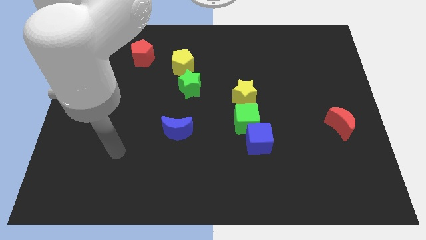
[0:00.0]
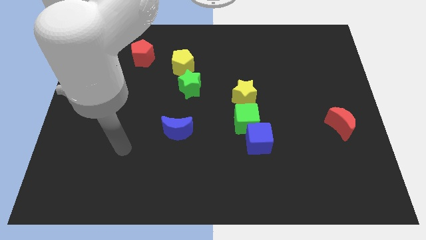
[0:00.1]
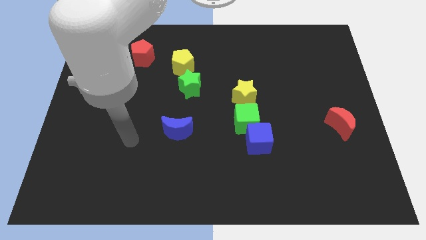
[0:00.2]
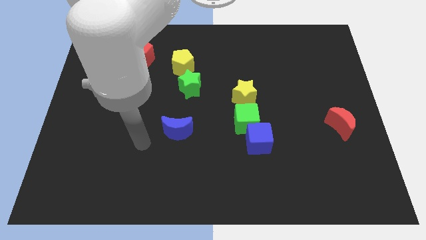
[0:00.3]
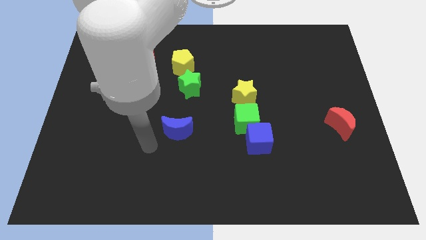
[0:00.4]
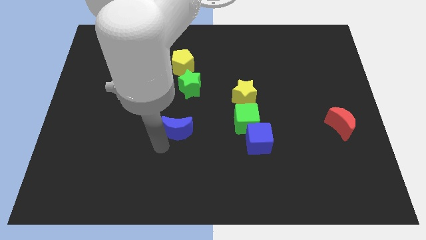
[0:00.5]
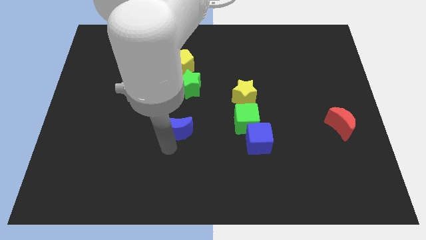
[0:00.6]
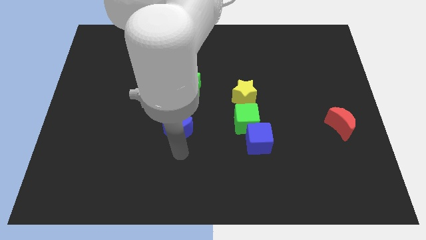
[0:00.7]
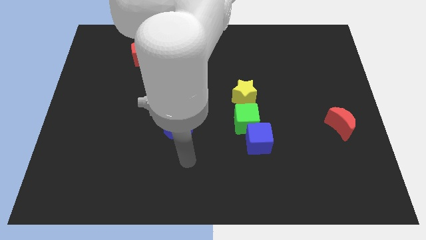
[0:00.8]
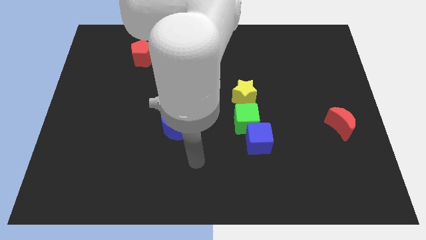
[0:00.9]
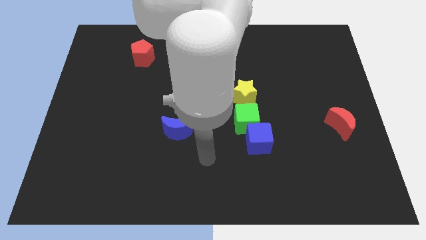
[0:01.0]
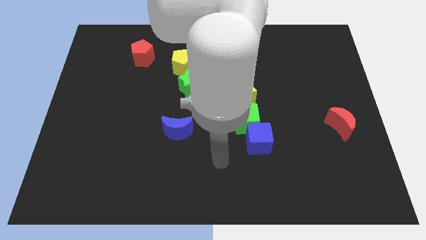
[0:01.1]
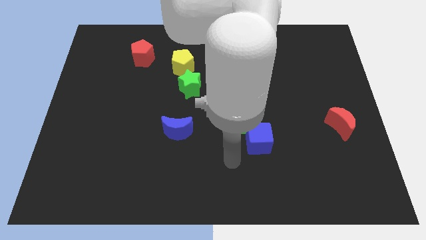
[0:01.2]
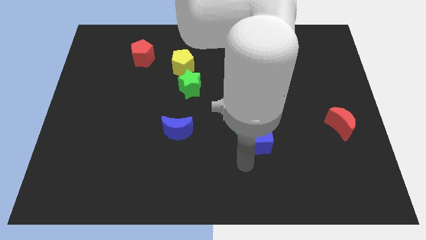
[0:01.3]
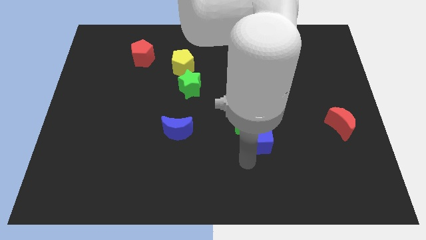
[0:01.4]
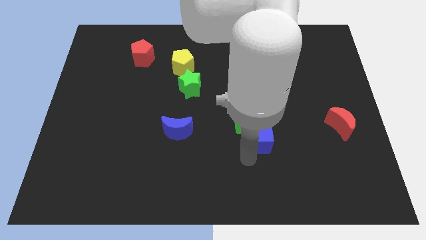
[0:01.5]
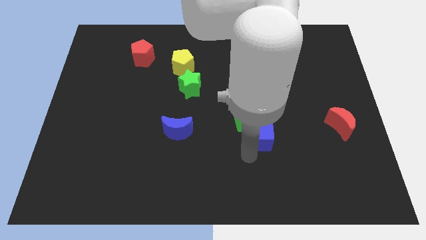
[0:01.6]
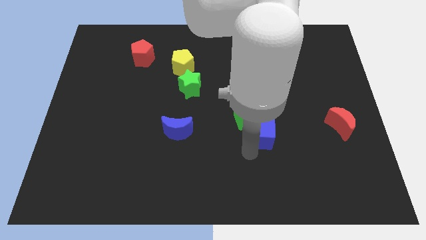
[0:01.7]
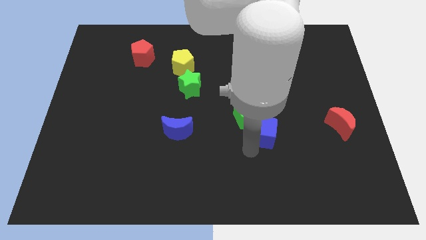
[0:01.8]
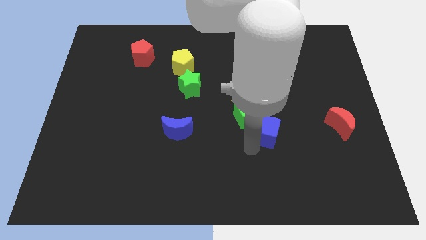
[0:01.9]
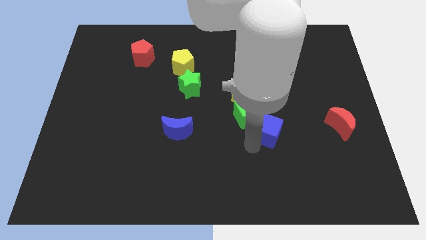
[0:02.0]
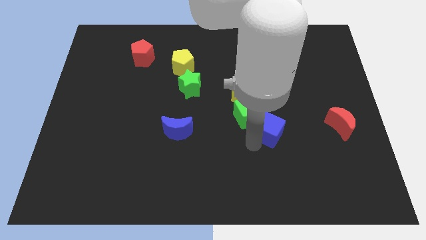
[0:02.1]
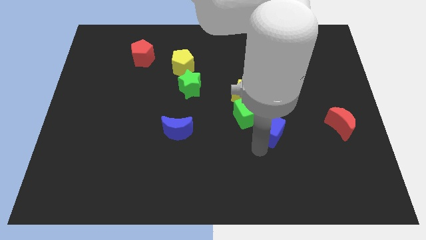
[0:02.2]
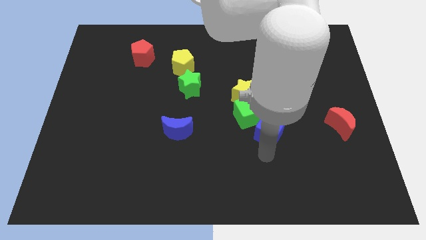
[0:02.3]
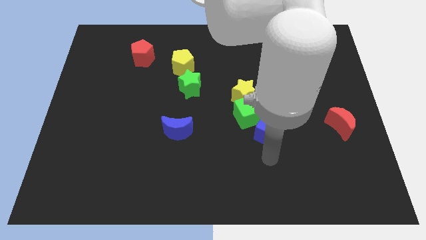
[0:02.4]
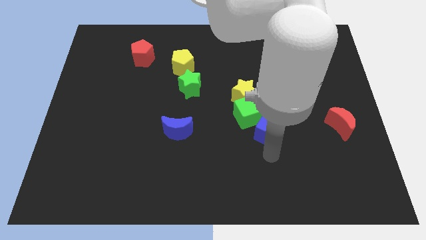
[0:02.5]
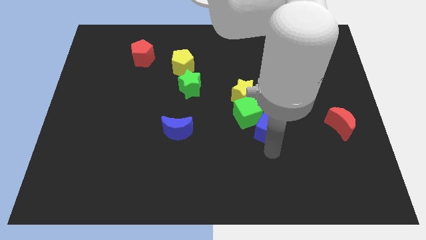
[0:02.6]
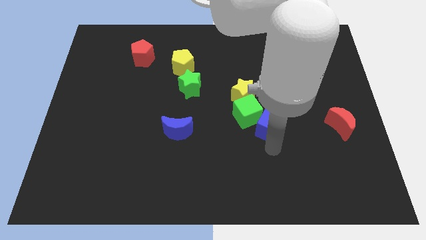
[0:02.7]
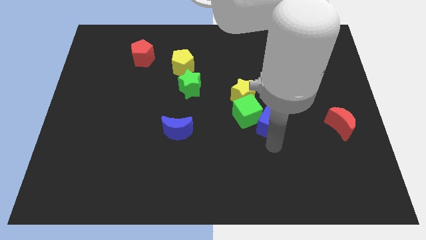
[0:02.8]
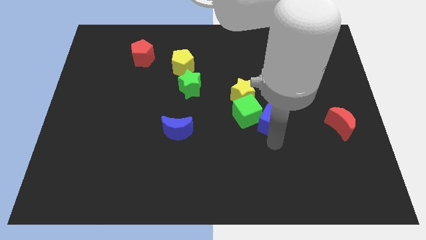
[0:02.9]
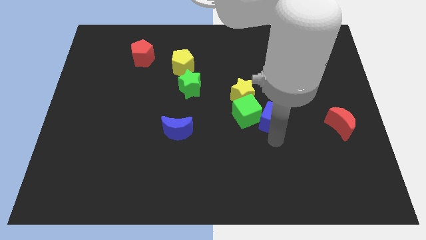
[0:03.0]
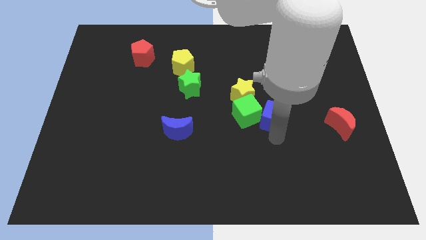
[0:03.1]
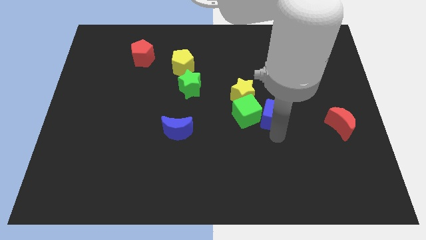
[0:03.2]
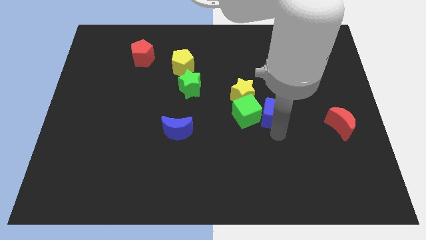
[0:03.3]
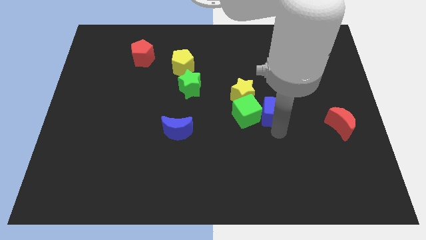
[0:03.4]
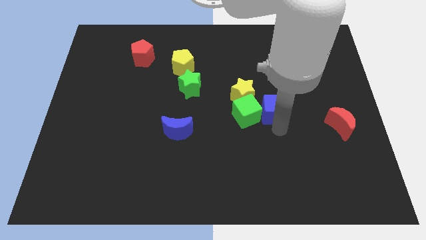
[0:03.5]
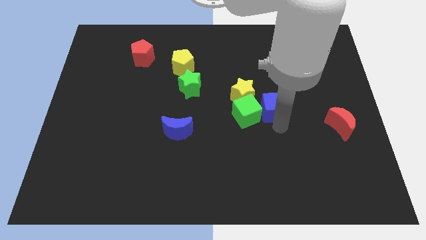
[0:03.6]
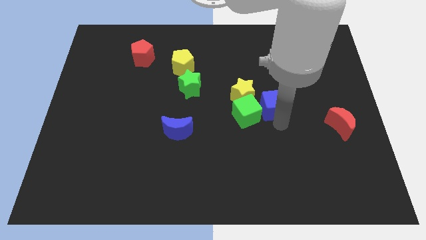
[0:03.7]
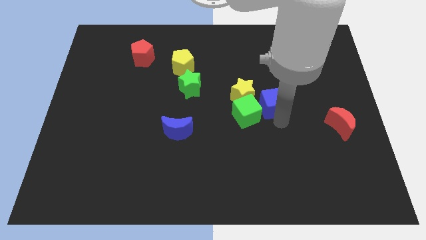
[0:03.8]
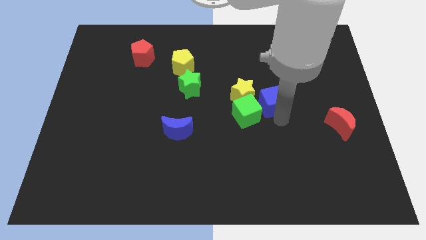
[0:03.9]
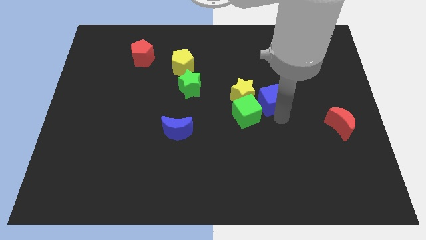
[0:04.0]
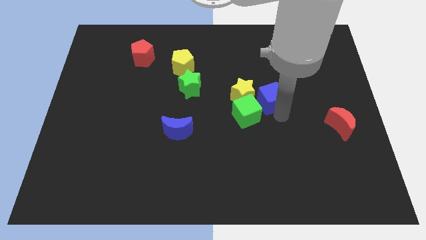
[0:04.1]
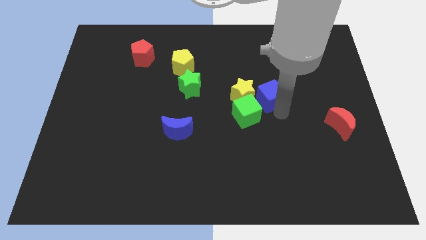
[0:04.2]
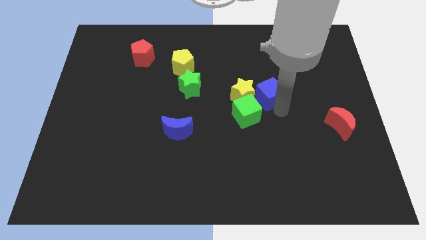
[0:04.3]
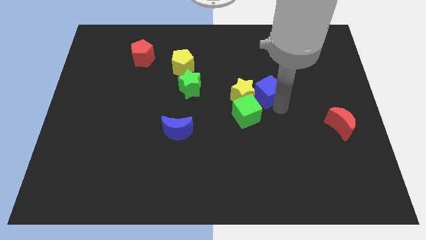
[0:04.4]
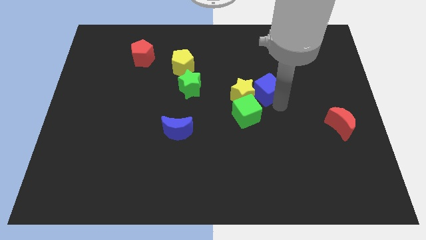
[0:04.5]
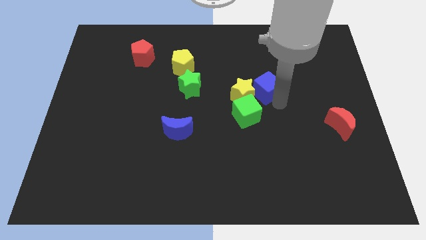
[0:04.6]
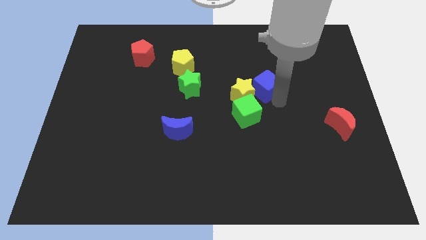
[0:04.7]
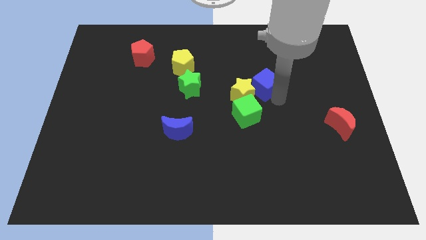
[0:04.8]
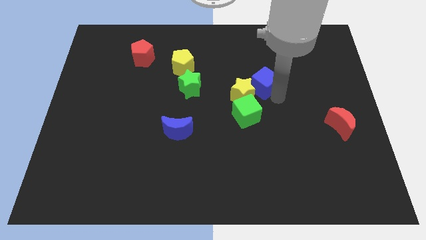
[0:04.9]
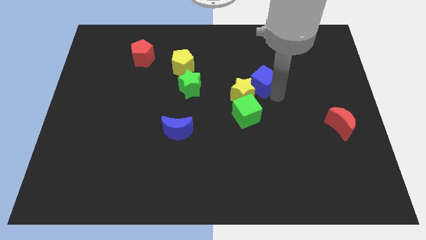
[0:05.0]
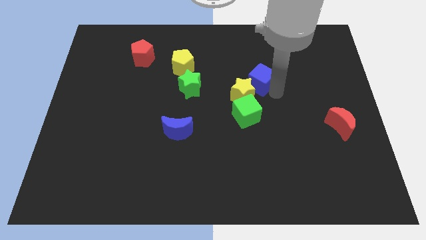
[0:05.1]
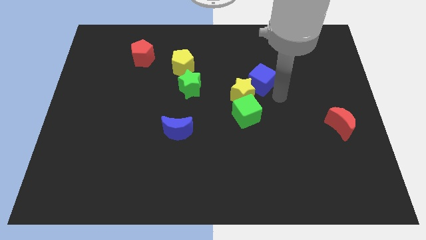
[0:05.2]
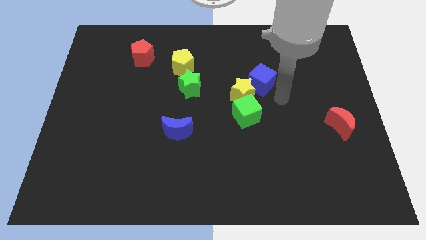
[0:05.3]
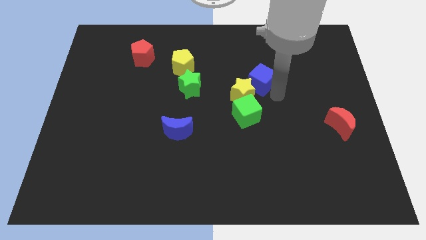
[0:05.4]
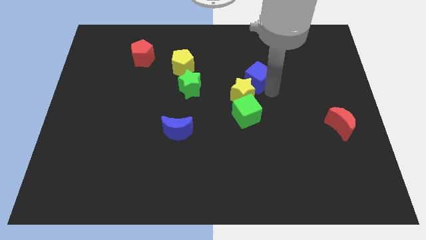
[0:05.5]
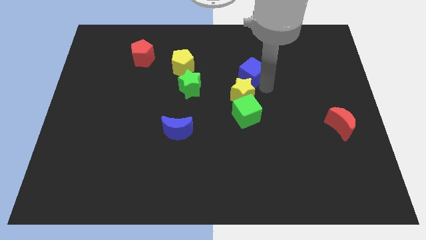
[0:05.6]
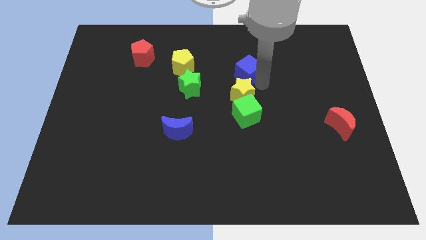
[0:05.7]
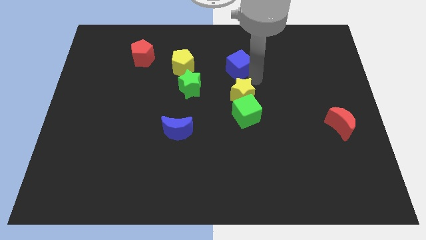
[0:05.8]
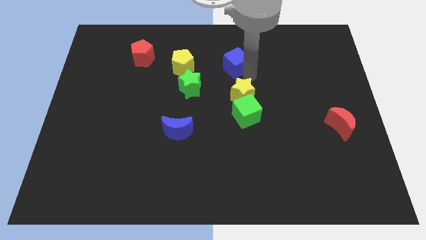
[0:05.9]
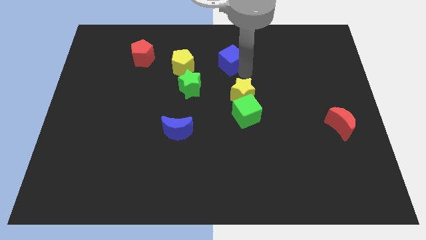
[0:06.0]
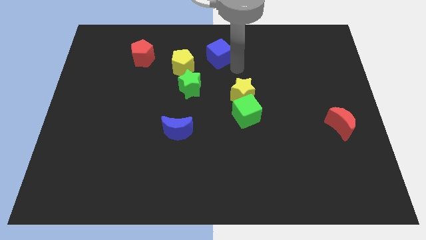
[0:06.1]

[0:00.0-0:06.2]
push the blue cube to the top

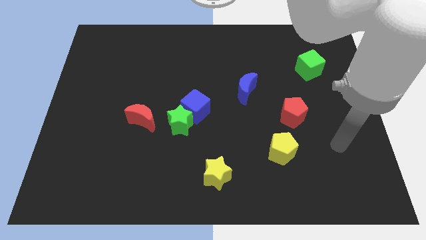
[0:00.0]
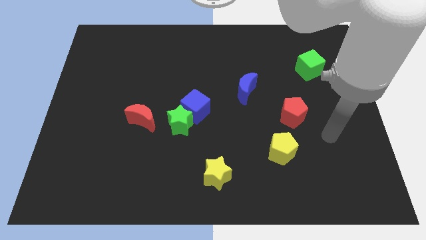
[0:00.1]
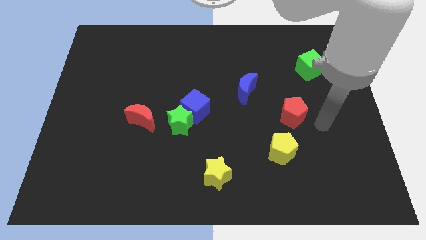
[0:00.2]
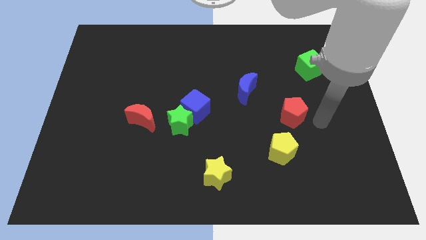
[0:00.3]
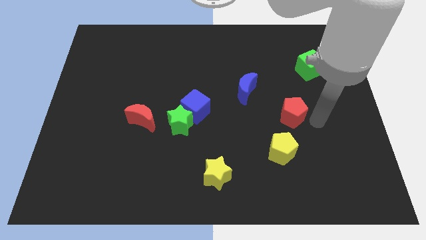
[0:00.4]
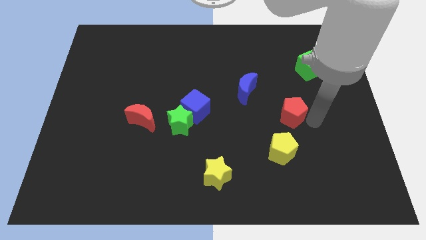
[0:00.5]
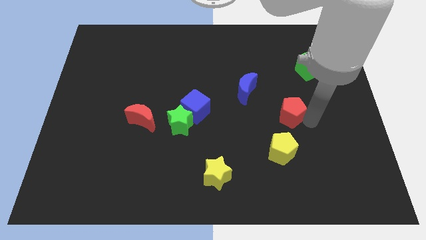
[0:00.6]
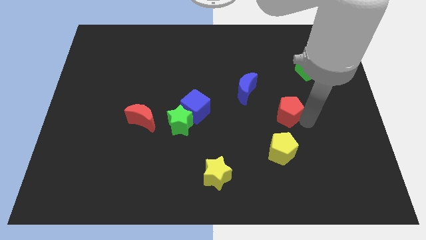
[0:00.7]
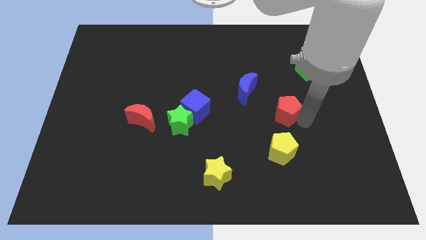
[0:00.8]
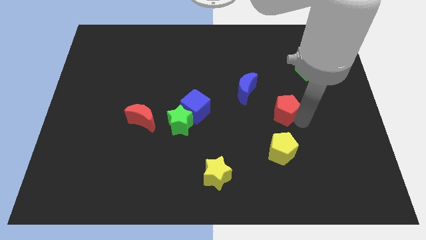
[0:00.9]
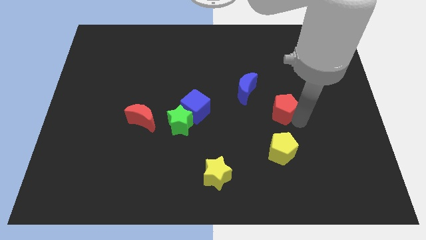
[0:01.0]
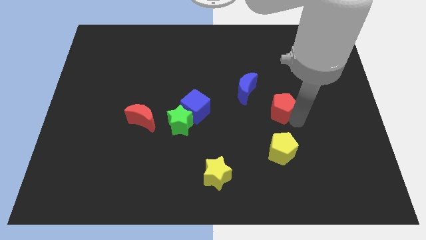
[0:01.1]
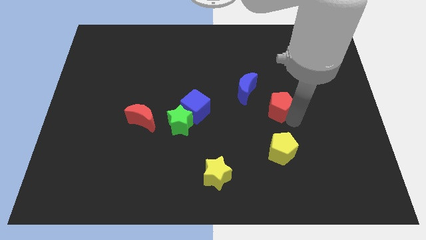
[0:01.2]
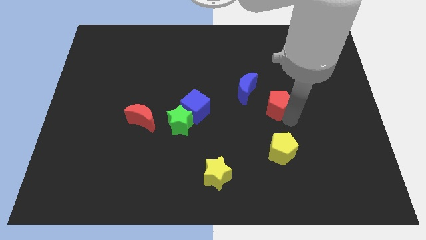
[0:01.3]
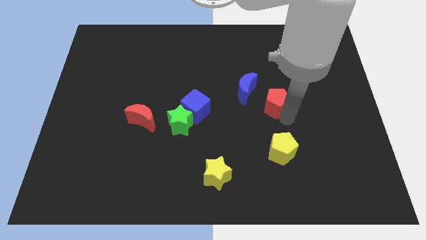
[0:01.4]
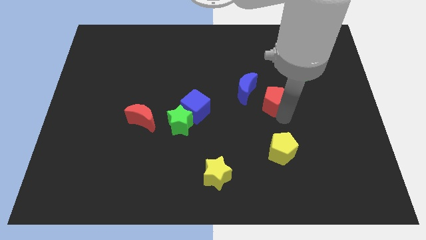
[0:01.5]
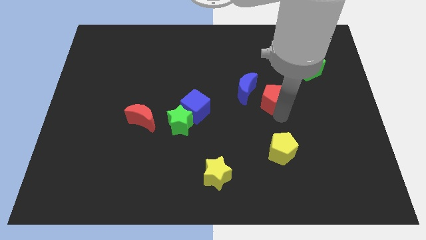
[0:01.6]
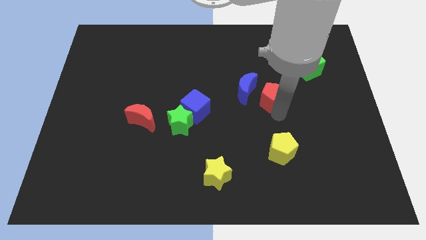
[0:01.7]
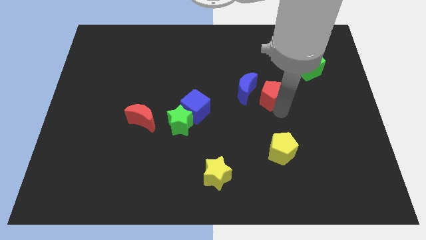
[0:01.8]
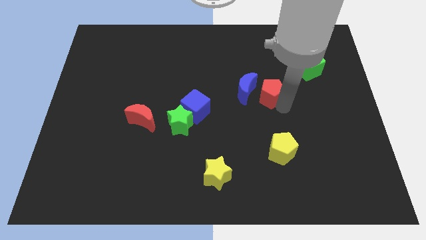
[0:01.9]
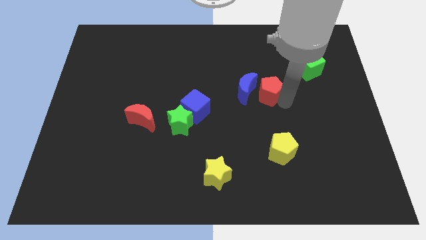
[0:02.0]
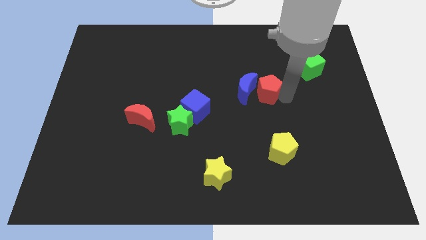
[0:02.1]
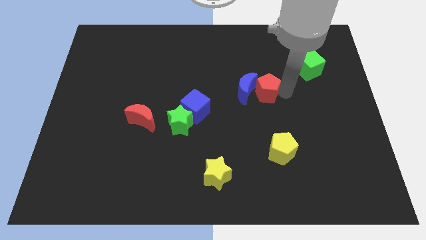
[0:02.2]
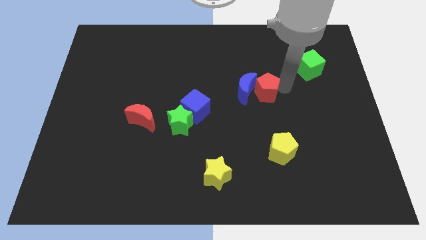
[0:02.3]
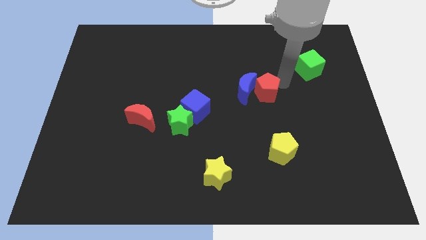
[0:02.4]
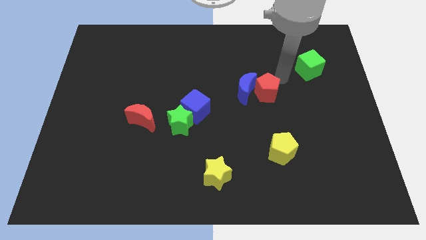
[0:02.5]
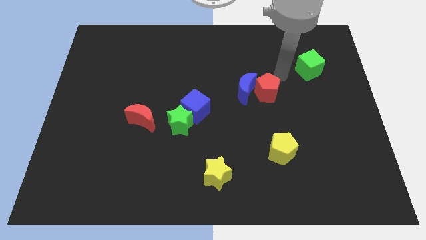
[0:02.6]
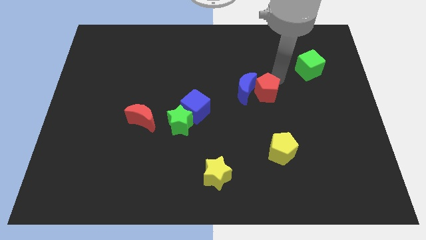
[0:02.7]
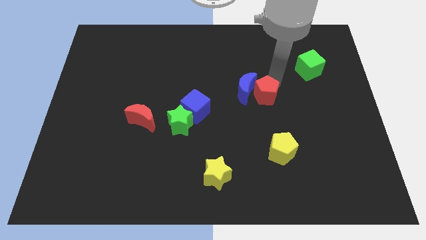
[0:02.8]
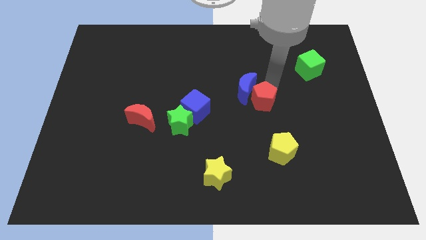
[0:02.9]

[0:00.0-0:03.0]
move the red pentagon to the center
